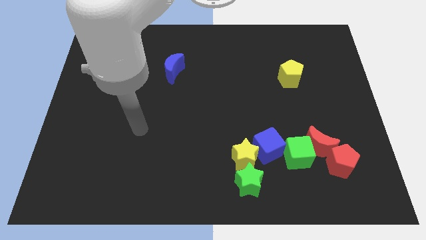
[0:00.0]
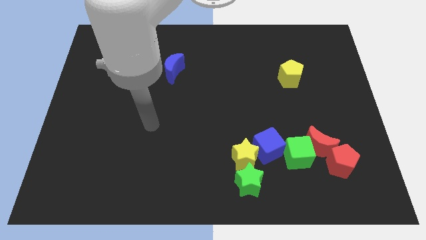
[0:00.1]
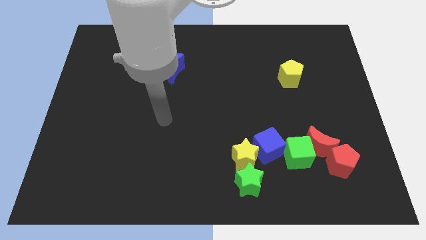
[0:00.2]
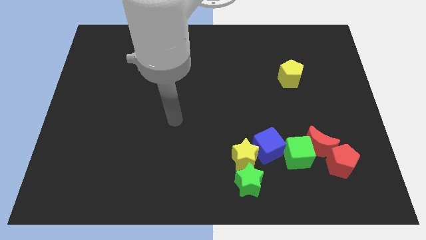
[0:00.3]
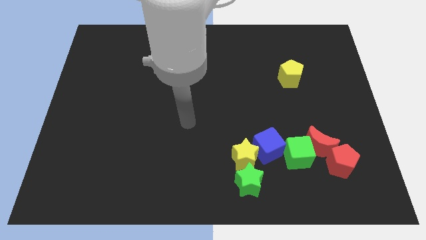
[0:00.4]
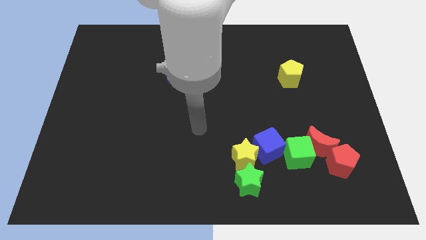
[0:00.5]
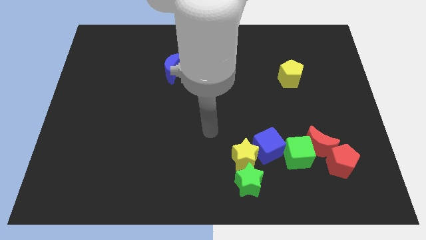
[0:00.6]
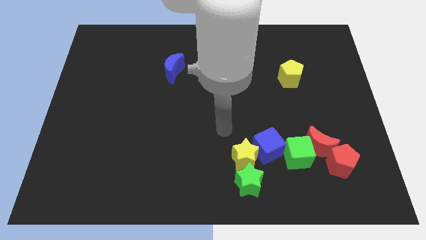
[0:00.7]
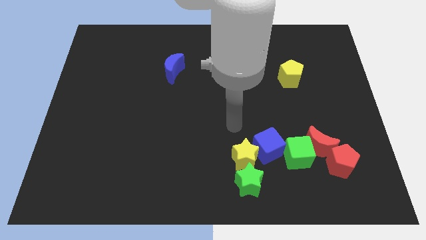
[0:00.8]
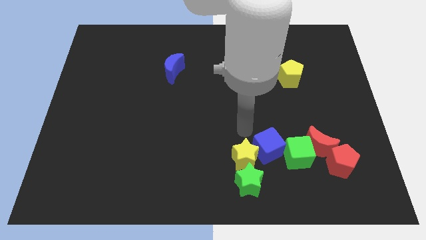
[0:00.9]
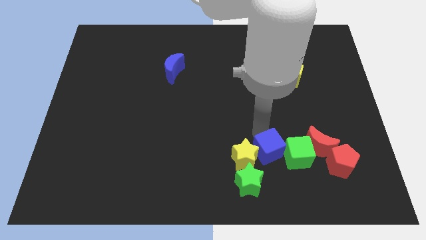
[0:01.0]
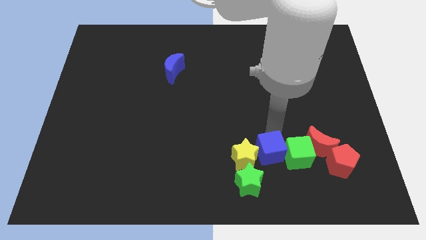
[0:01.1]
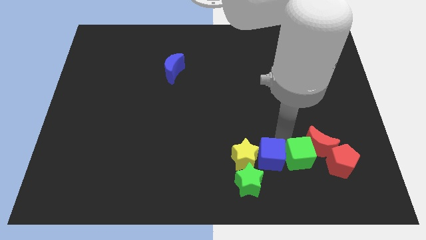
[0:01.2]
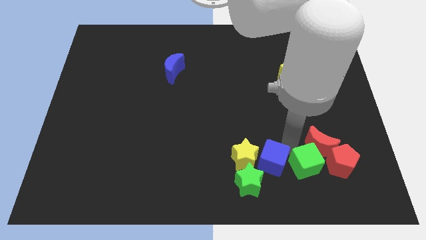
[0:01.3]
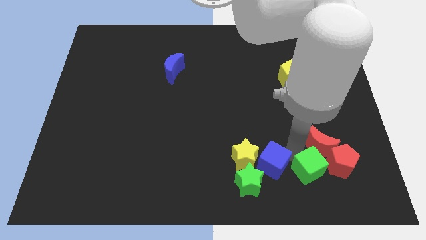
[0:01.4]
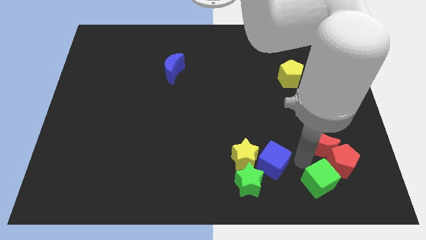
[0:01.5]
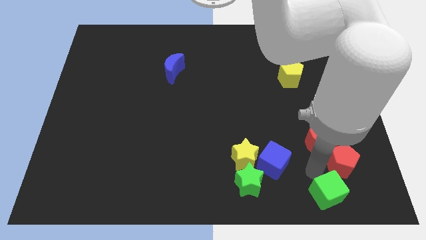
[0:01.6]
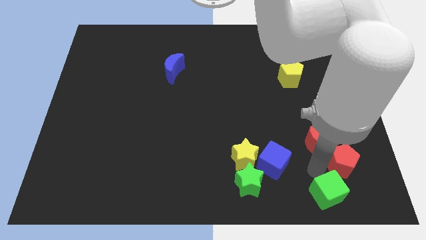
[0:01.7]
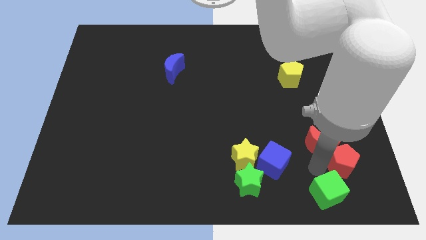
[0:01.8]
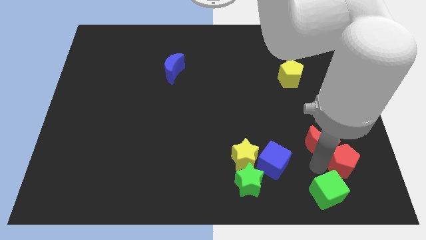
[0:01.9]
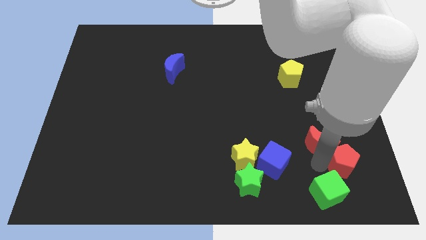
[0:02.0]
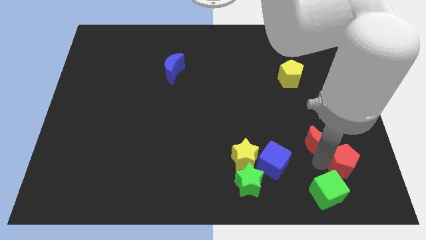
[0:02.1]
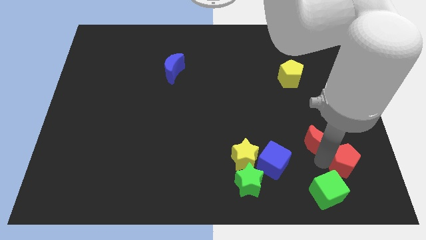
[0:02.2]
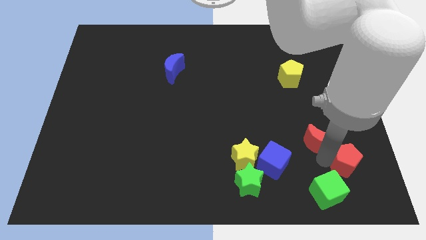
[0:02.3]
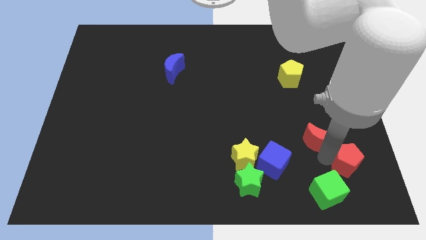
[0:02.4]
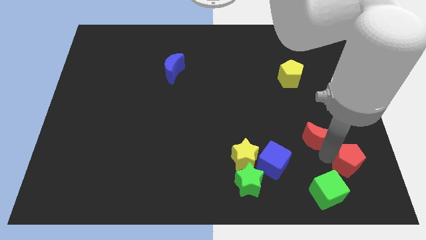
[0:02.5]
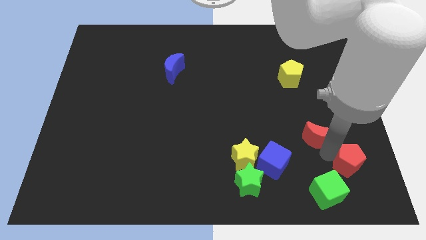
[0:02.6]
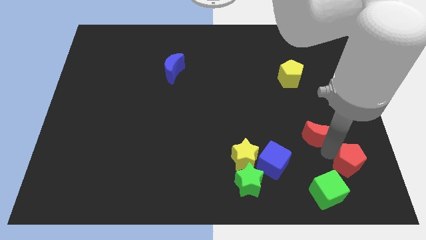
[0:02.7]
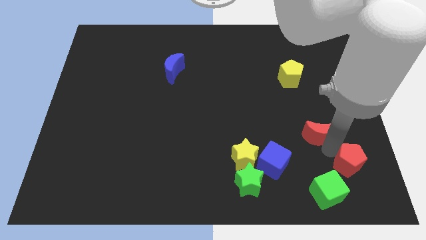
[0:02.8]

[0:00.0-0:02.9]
move the red moon away from the green cube and red pentagon

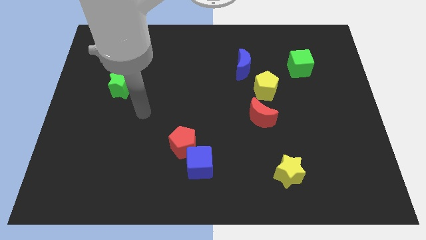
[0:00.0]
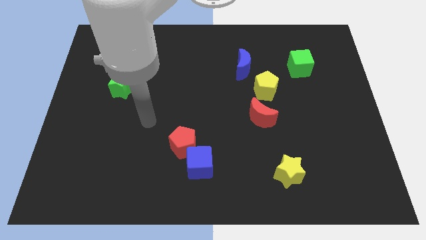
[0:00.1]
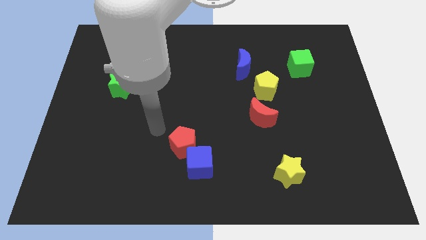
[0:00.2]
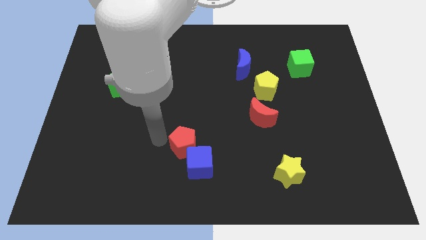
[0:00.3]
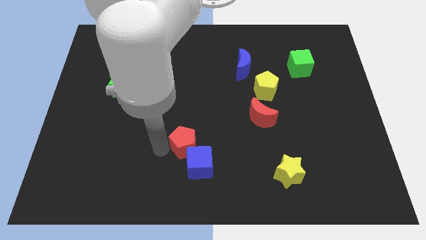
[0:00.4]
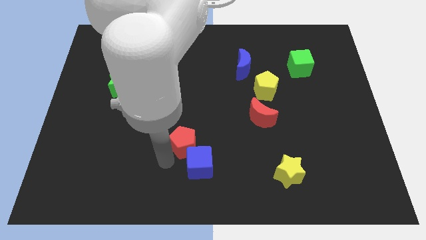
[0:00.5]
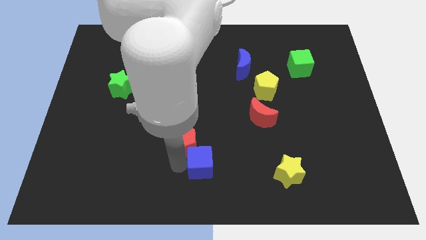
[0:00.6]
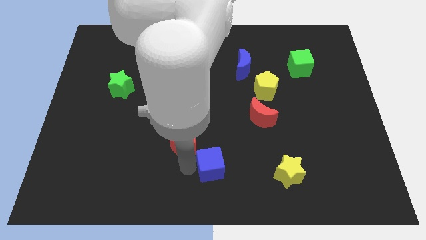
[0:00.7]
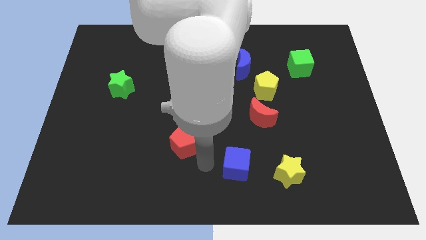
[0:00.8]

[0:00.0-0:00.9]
move the red pentagon away from the blue cube

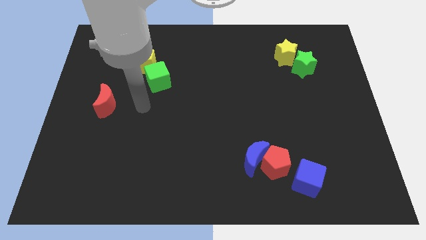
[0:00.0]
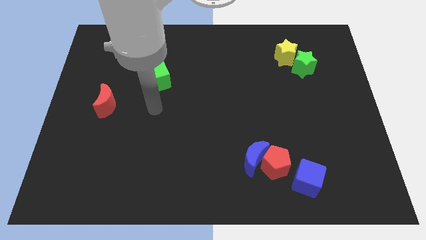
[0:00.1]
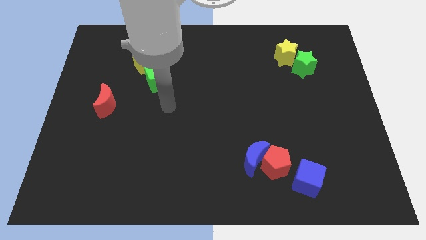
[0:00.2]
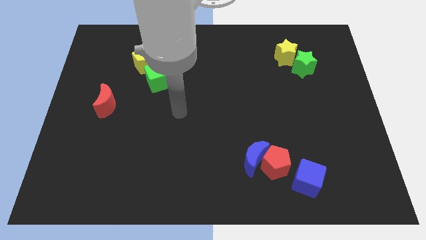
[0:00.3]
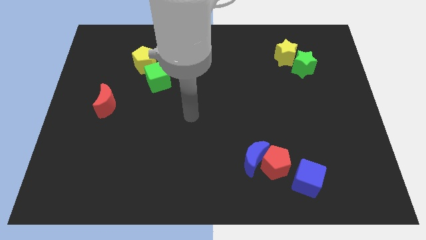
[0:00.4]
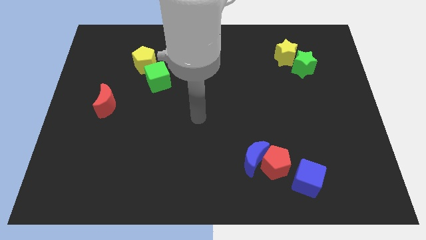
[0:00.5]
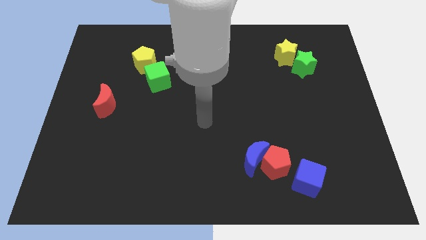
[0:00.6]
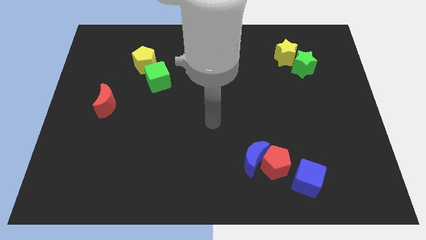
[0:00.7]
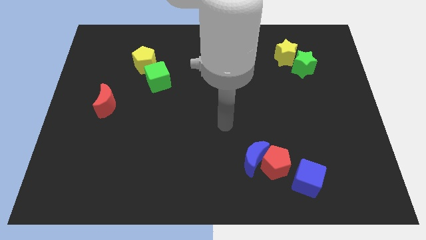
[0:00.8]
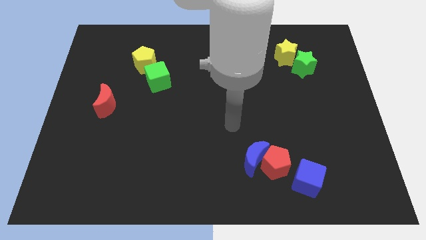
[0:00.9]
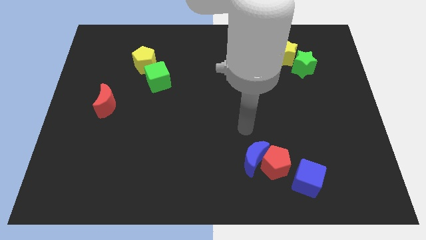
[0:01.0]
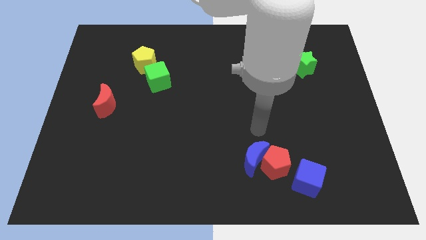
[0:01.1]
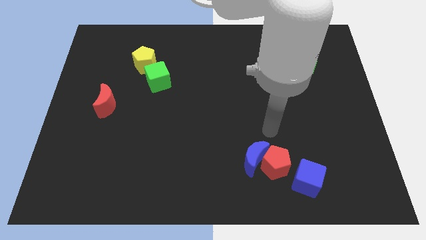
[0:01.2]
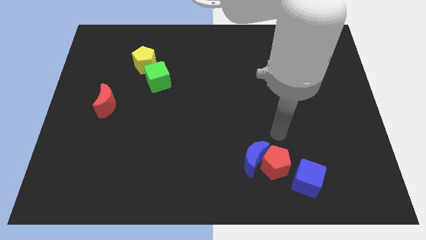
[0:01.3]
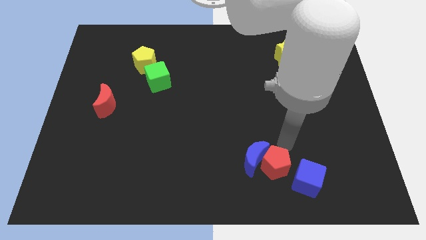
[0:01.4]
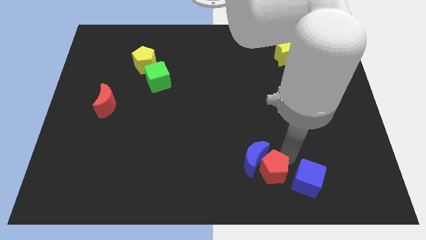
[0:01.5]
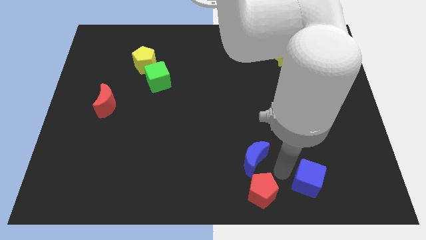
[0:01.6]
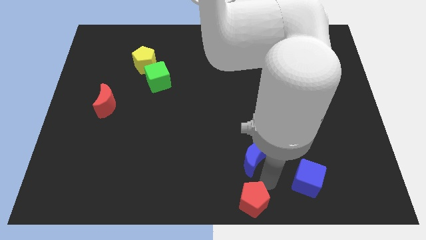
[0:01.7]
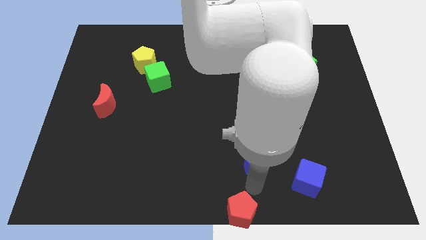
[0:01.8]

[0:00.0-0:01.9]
separate the blue moon from the red pentagon

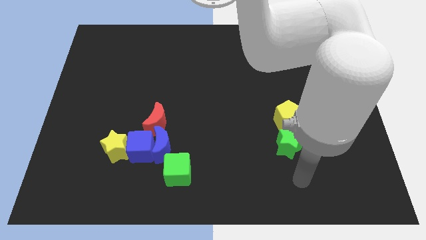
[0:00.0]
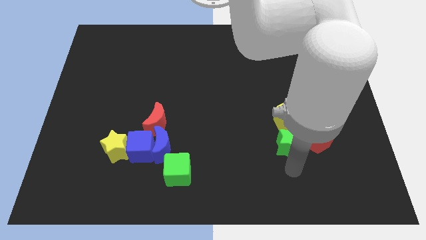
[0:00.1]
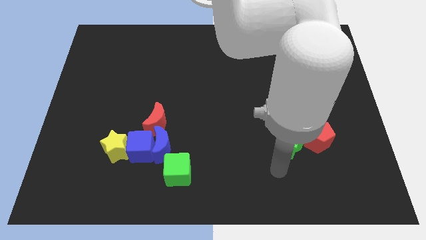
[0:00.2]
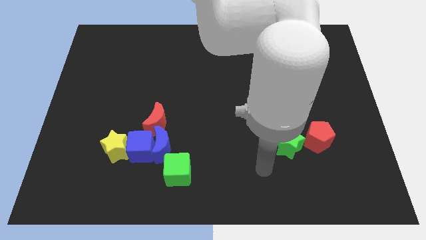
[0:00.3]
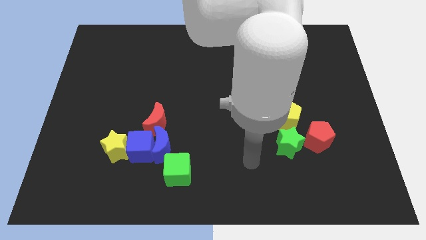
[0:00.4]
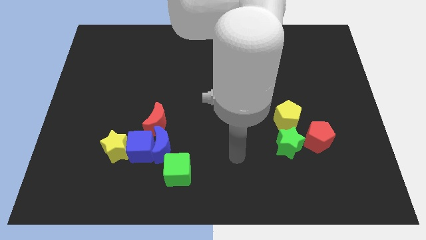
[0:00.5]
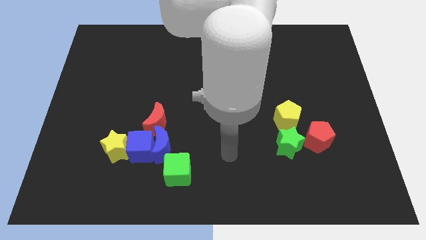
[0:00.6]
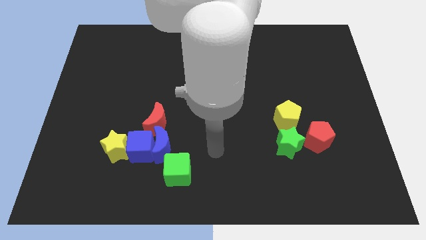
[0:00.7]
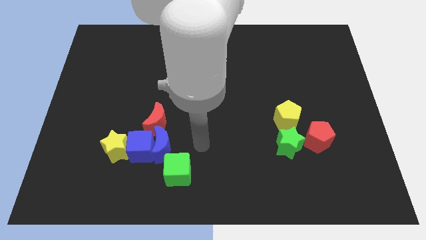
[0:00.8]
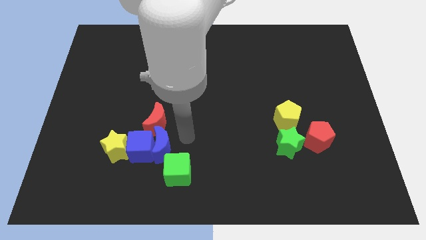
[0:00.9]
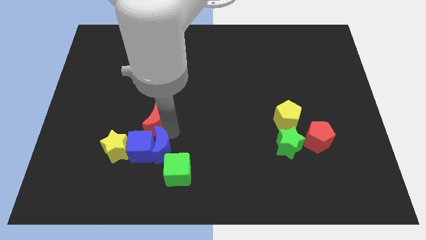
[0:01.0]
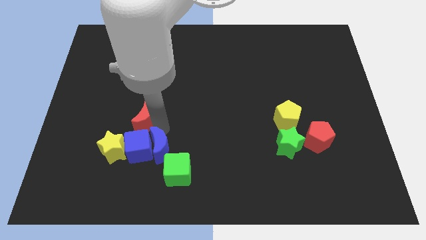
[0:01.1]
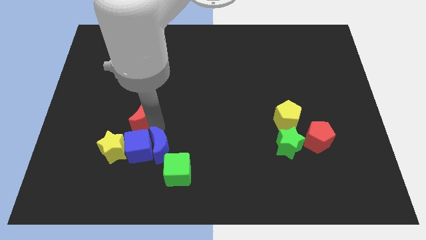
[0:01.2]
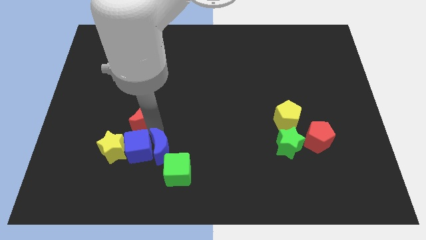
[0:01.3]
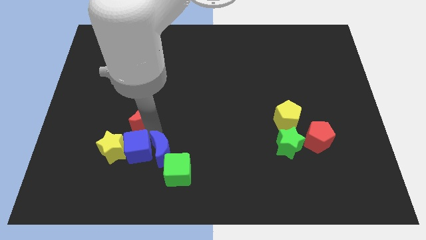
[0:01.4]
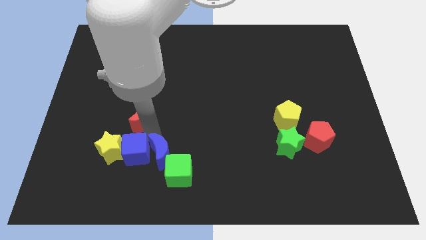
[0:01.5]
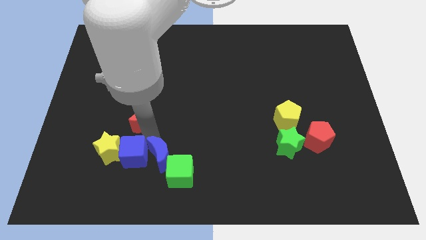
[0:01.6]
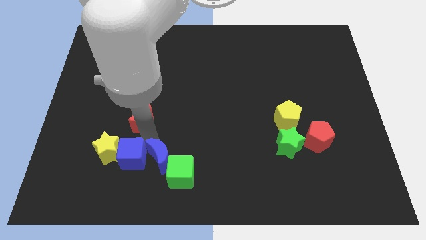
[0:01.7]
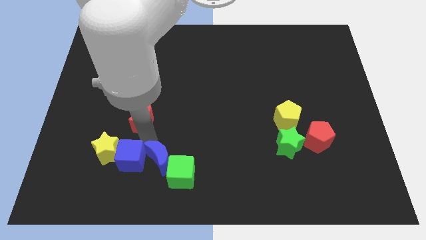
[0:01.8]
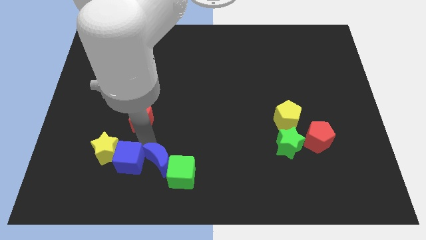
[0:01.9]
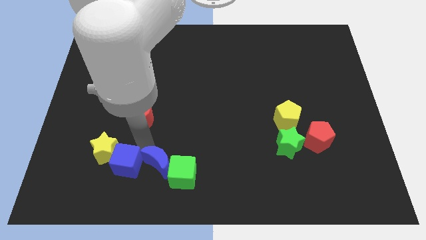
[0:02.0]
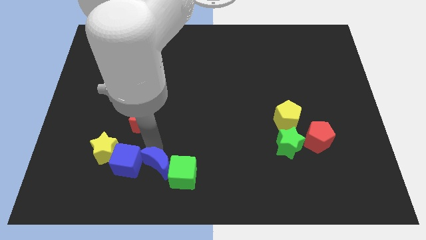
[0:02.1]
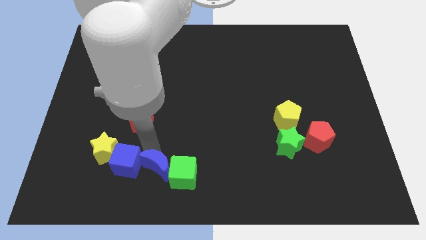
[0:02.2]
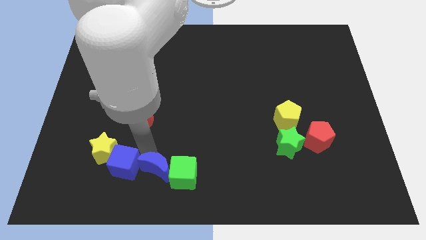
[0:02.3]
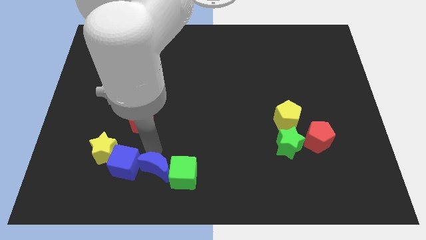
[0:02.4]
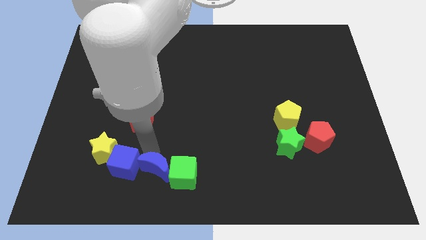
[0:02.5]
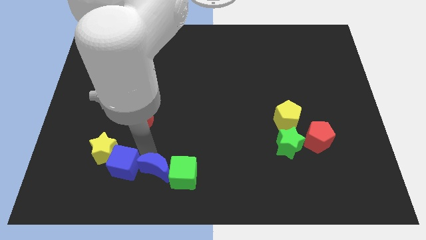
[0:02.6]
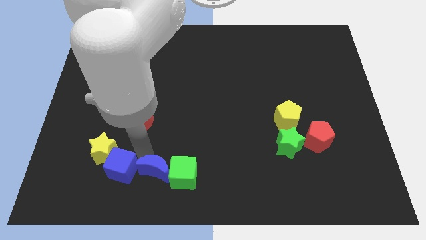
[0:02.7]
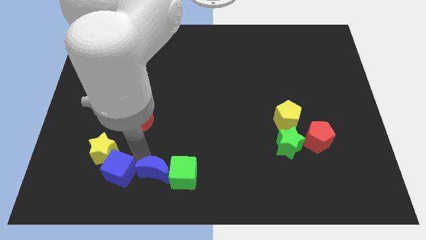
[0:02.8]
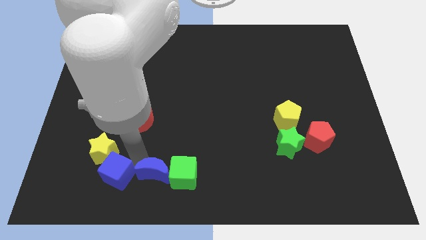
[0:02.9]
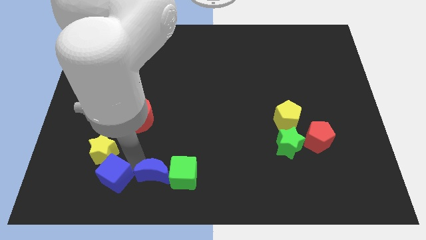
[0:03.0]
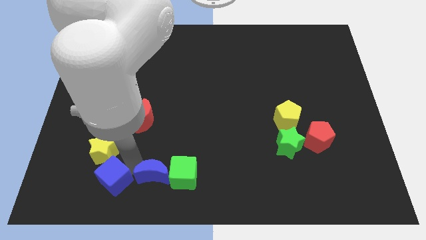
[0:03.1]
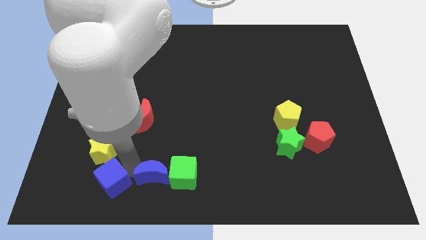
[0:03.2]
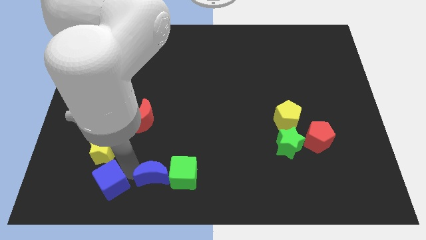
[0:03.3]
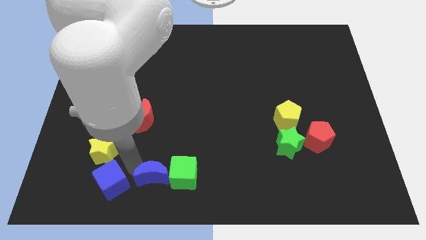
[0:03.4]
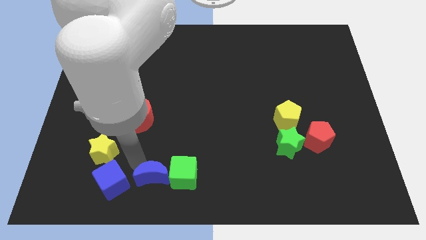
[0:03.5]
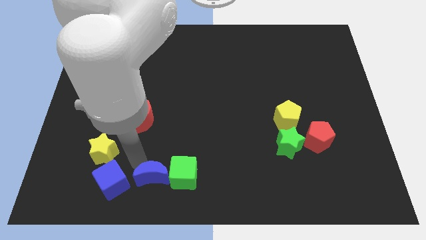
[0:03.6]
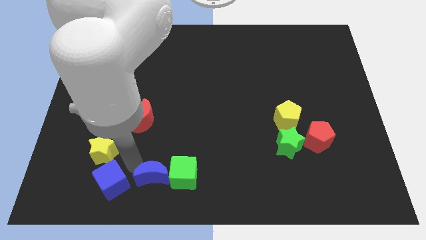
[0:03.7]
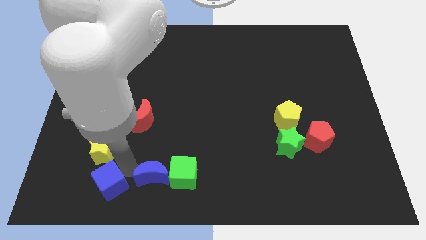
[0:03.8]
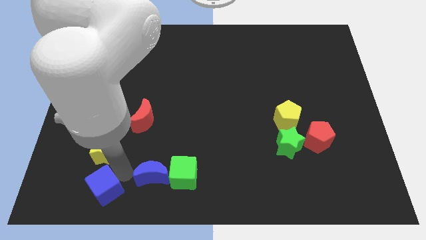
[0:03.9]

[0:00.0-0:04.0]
separate the blue cube from the clump
